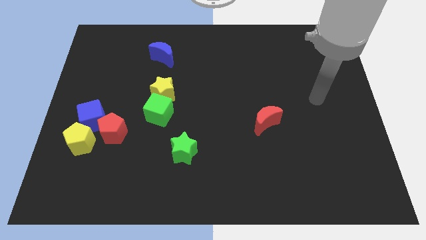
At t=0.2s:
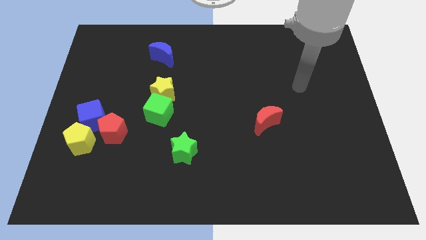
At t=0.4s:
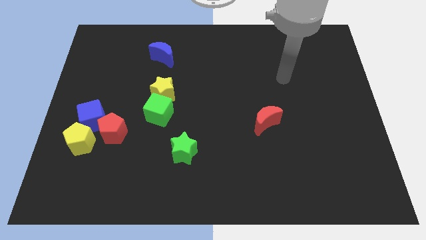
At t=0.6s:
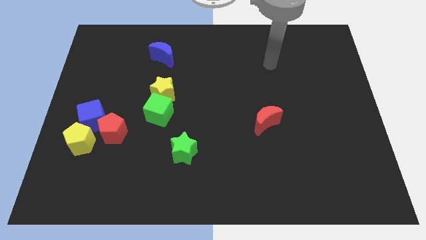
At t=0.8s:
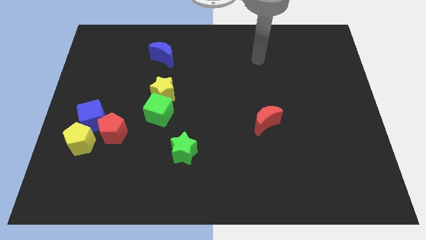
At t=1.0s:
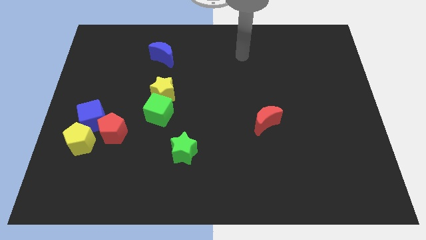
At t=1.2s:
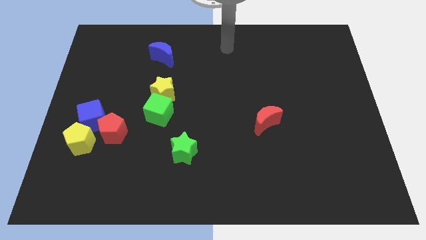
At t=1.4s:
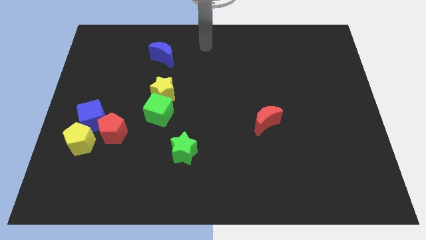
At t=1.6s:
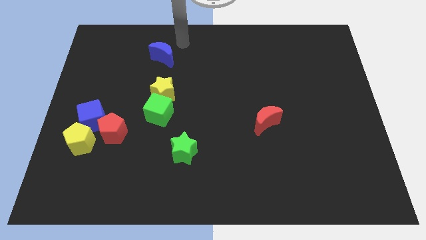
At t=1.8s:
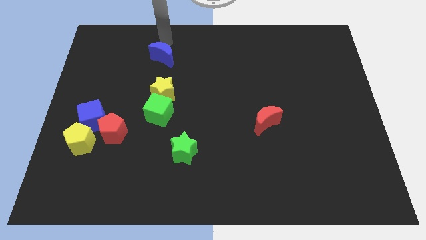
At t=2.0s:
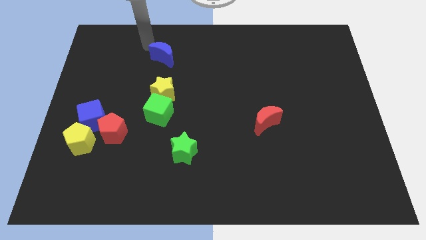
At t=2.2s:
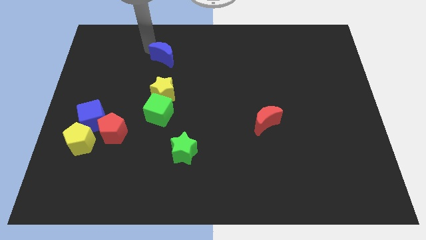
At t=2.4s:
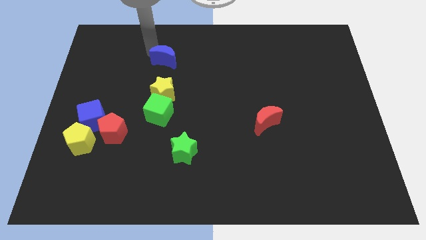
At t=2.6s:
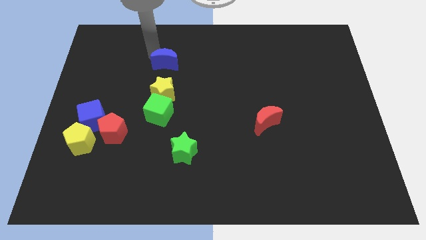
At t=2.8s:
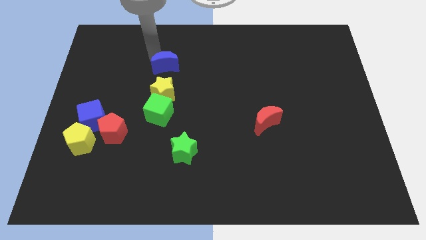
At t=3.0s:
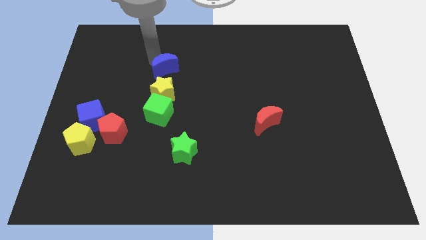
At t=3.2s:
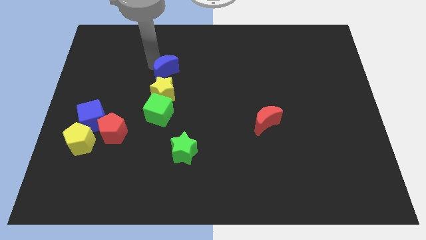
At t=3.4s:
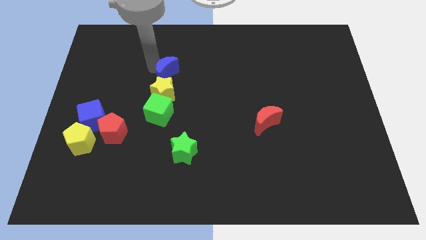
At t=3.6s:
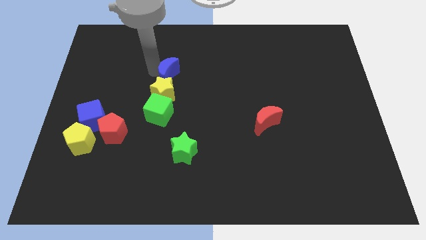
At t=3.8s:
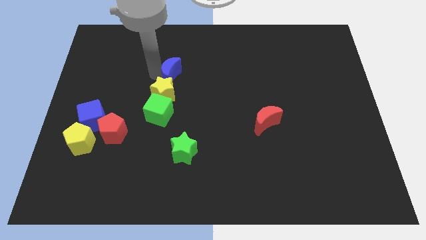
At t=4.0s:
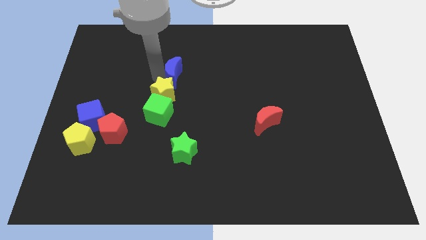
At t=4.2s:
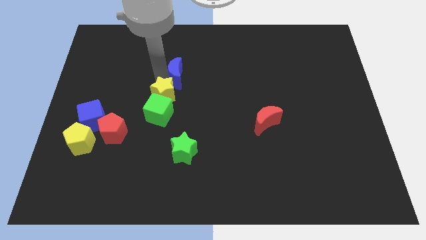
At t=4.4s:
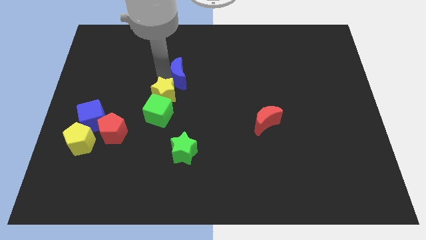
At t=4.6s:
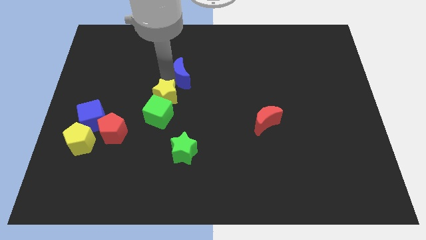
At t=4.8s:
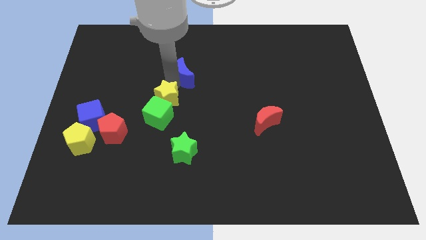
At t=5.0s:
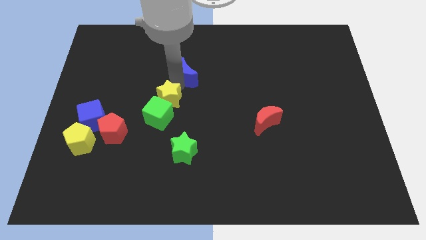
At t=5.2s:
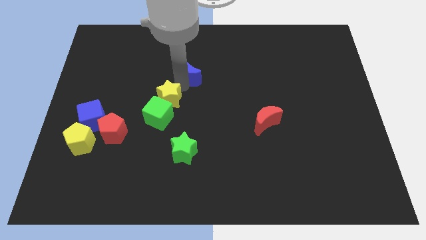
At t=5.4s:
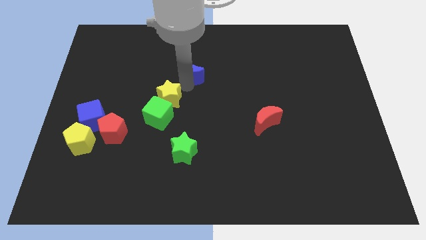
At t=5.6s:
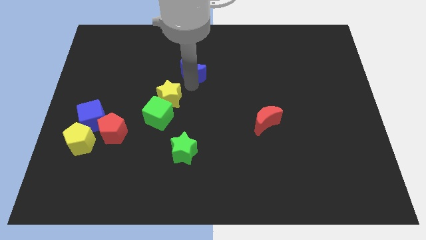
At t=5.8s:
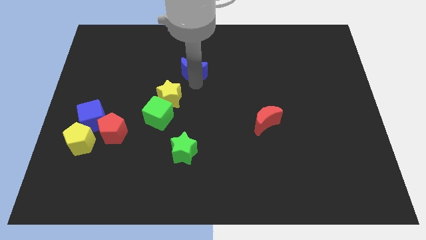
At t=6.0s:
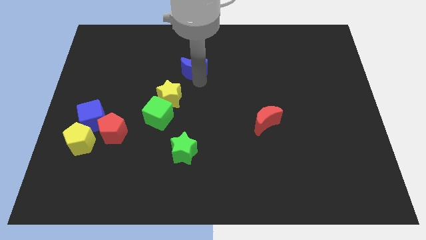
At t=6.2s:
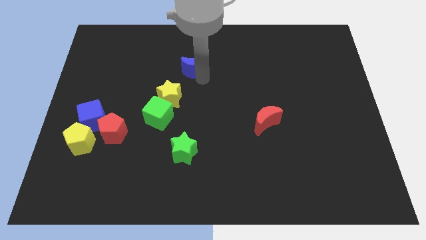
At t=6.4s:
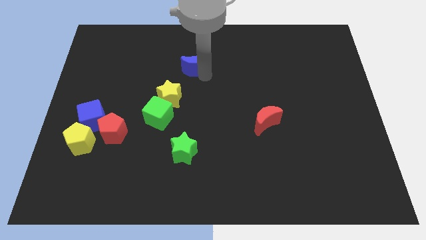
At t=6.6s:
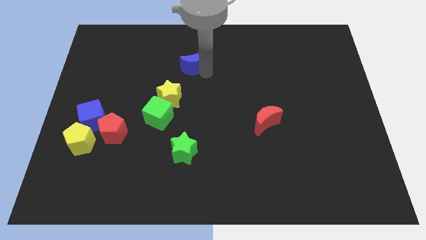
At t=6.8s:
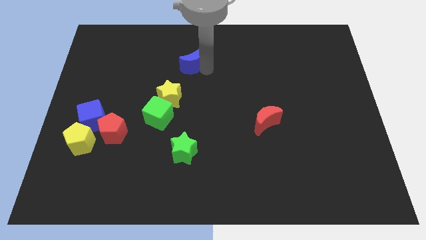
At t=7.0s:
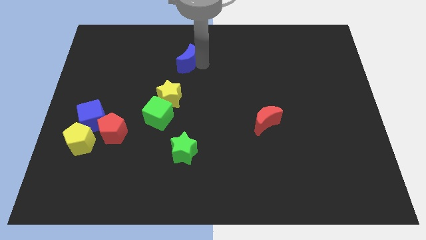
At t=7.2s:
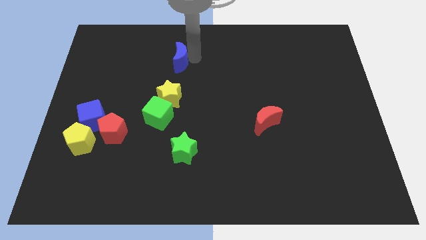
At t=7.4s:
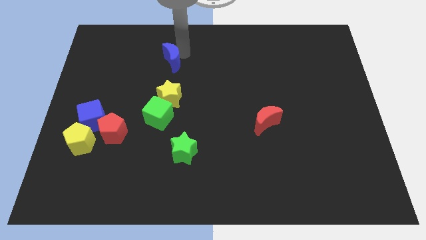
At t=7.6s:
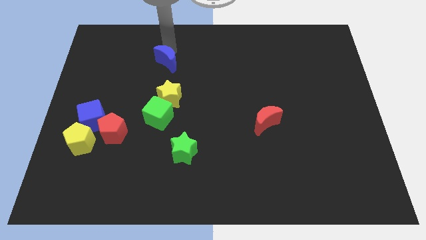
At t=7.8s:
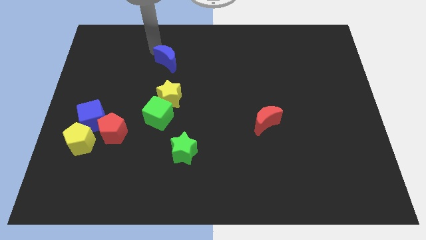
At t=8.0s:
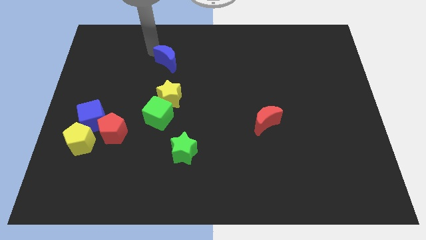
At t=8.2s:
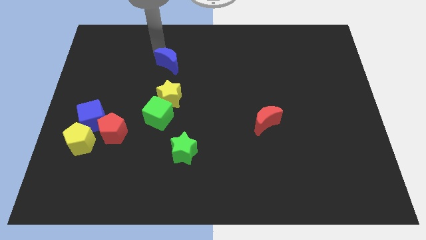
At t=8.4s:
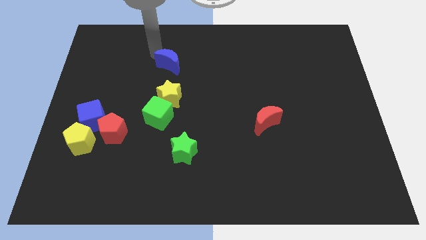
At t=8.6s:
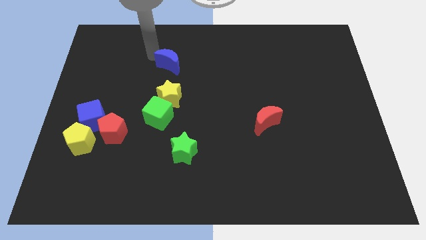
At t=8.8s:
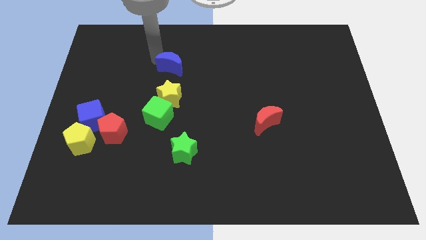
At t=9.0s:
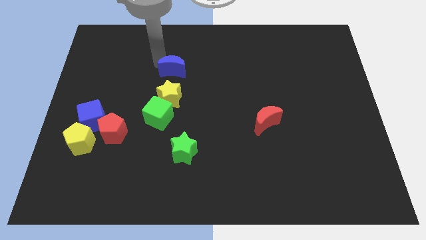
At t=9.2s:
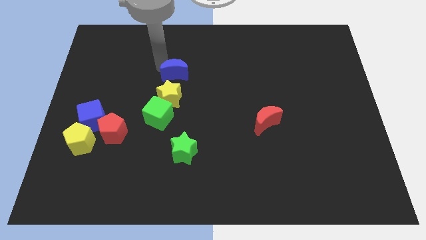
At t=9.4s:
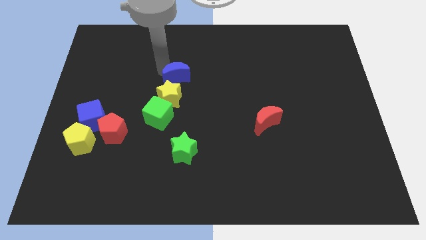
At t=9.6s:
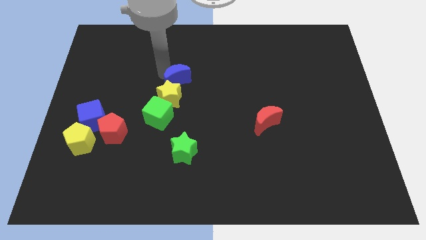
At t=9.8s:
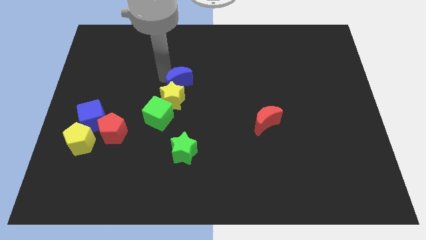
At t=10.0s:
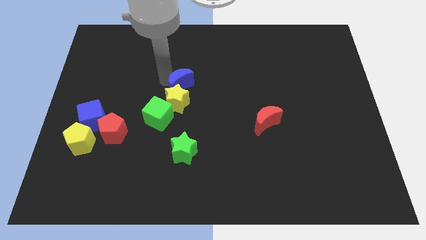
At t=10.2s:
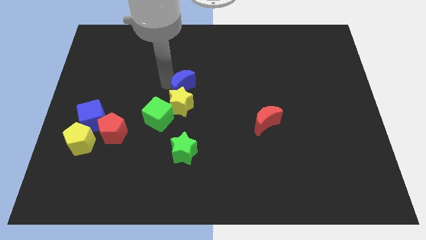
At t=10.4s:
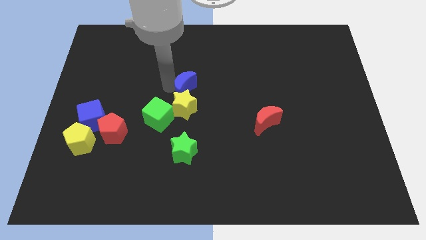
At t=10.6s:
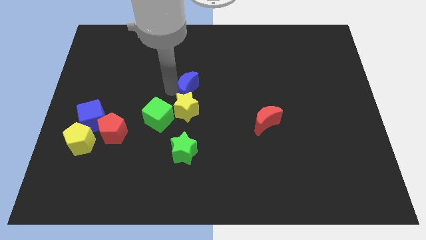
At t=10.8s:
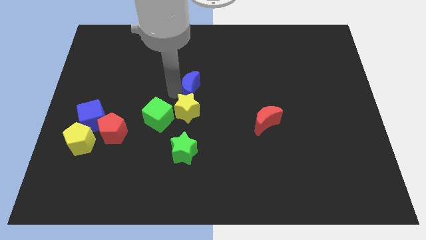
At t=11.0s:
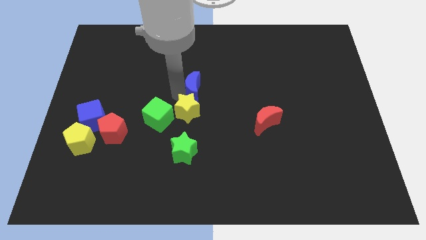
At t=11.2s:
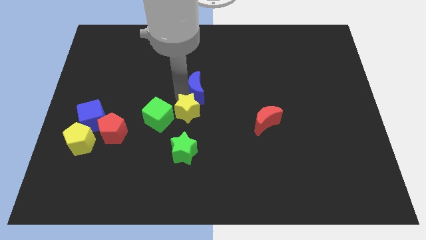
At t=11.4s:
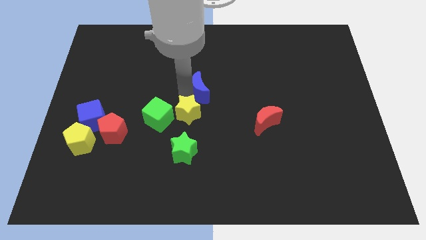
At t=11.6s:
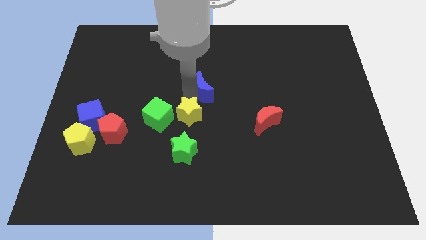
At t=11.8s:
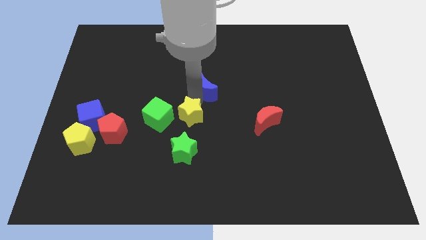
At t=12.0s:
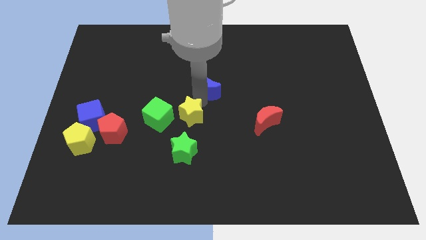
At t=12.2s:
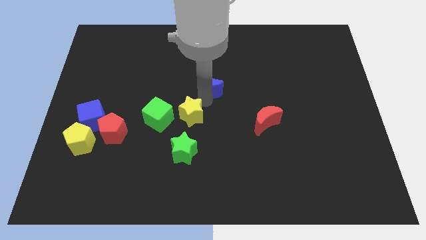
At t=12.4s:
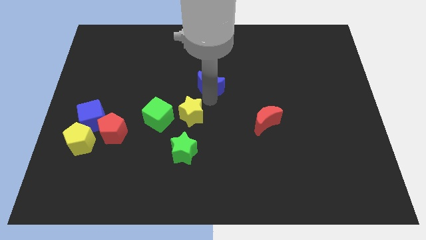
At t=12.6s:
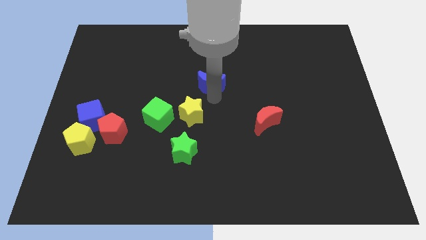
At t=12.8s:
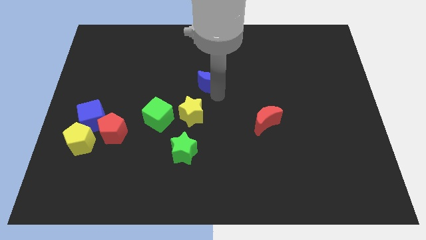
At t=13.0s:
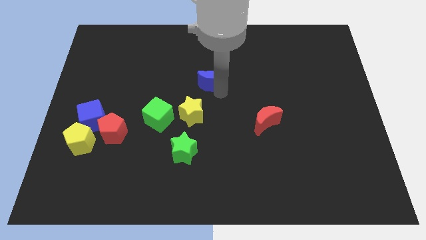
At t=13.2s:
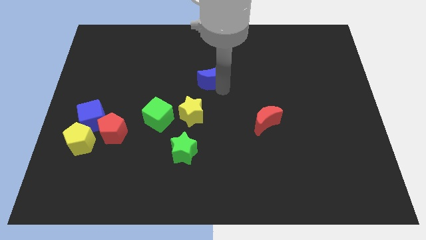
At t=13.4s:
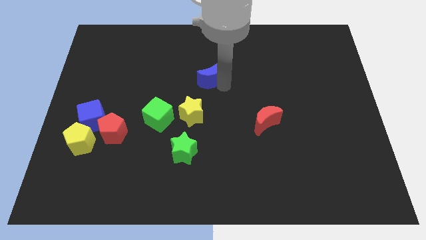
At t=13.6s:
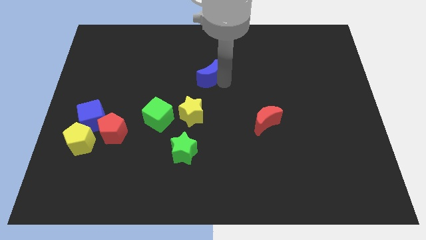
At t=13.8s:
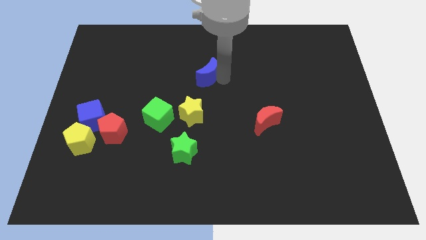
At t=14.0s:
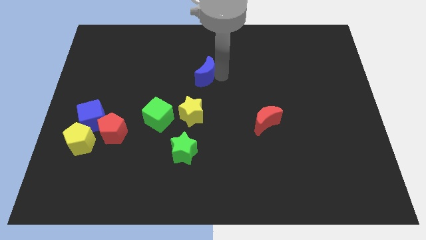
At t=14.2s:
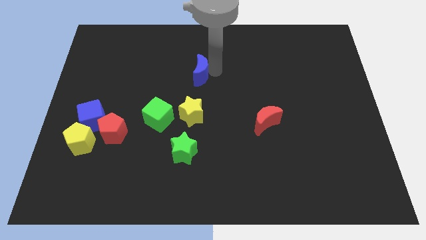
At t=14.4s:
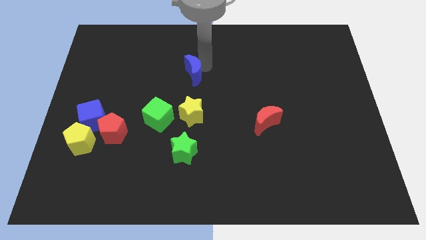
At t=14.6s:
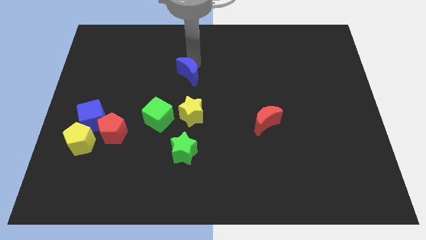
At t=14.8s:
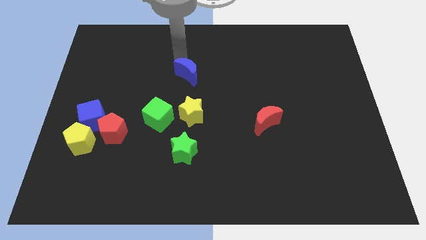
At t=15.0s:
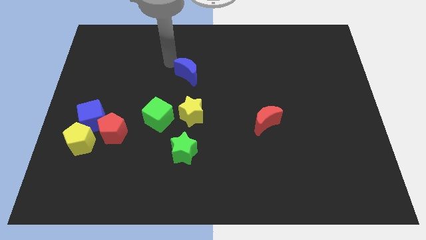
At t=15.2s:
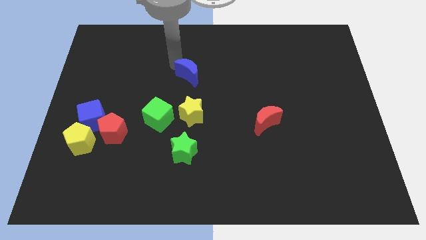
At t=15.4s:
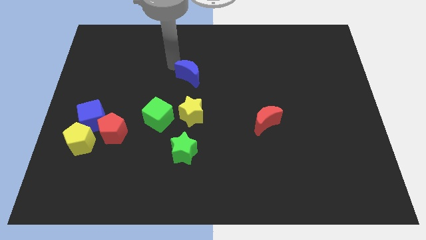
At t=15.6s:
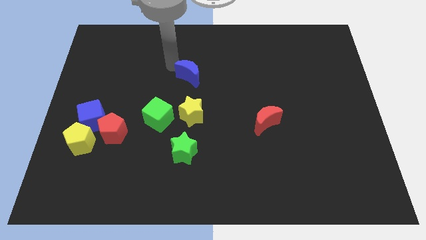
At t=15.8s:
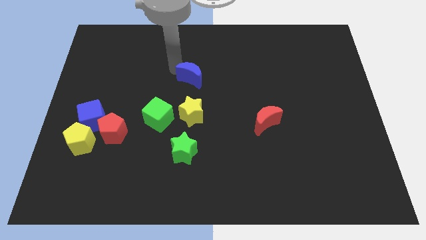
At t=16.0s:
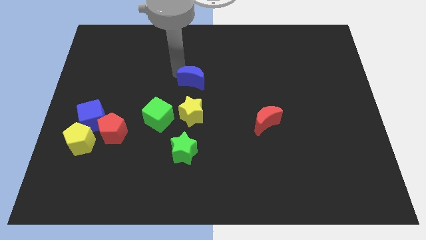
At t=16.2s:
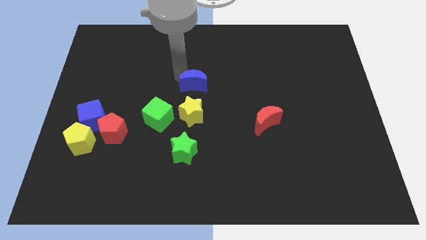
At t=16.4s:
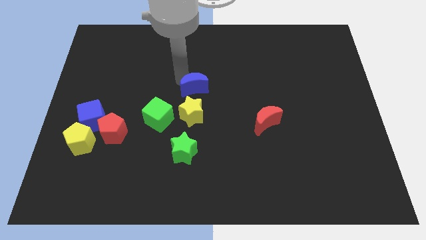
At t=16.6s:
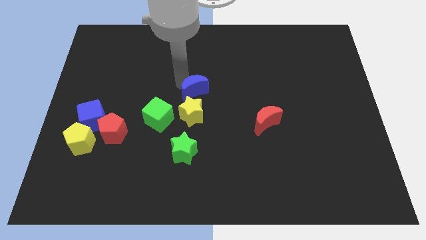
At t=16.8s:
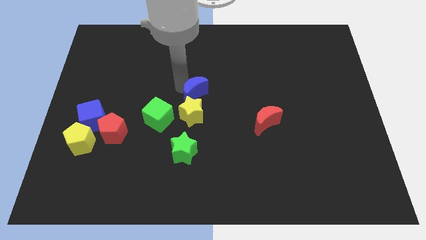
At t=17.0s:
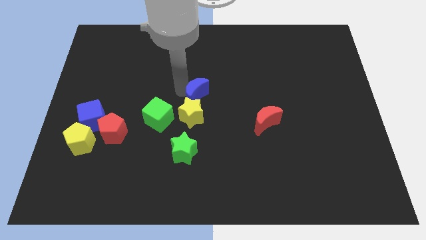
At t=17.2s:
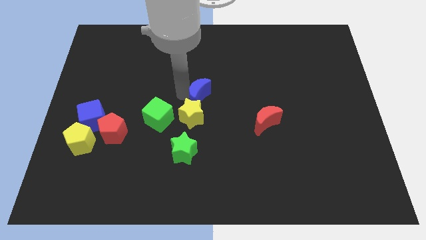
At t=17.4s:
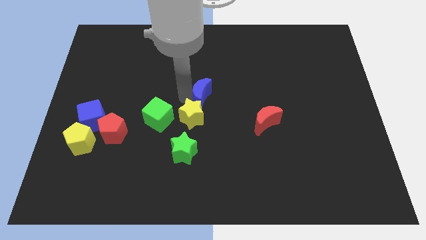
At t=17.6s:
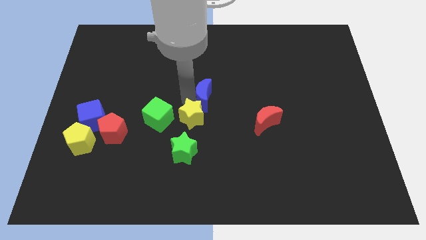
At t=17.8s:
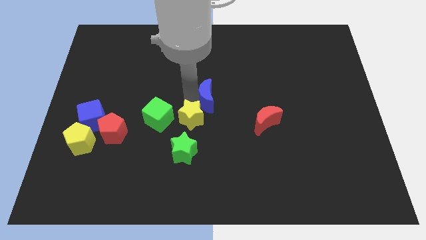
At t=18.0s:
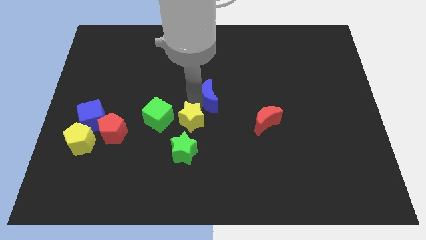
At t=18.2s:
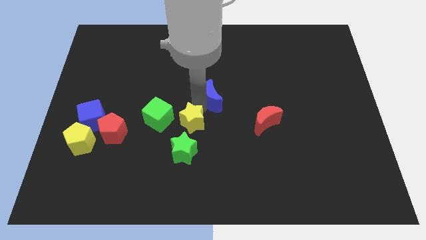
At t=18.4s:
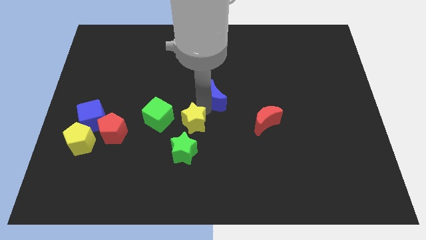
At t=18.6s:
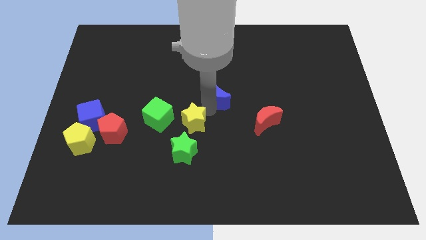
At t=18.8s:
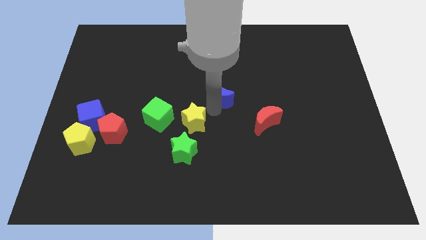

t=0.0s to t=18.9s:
put the blue moon to the top left of the red moon
